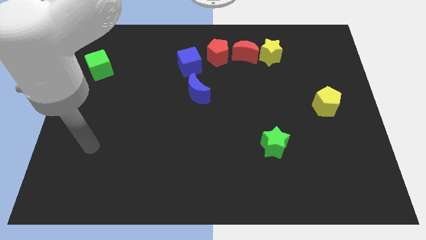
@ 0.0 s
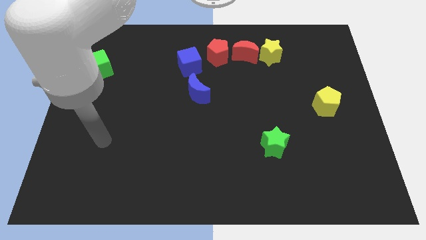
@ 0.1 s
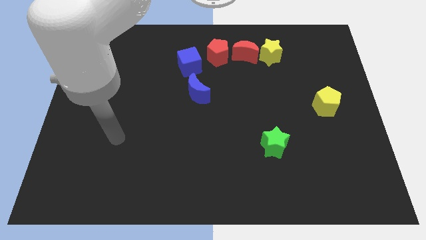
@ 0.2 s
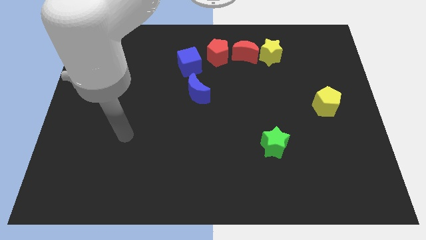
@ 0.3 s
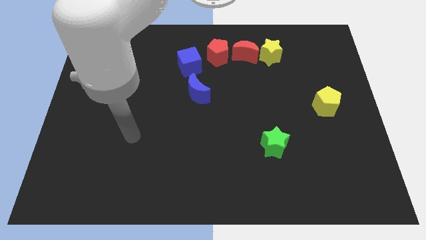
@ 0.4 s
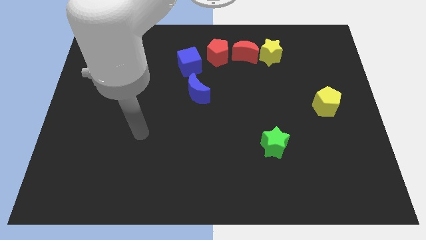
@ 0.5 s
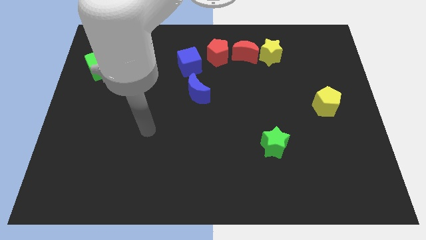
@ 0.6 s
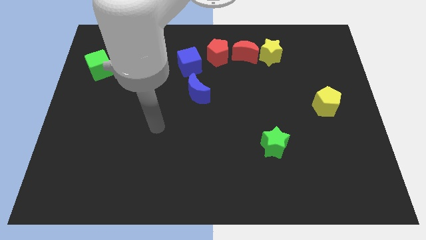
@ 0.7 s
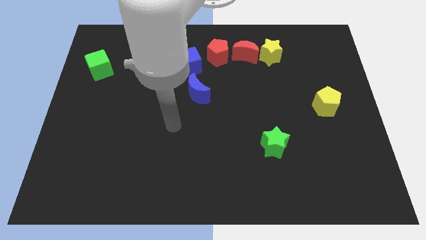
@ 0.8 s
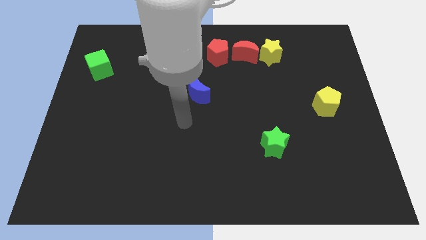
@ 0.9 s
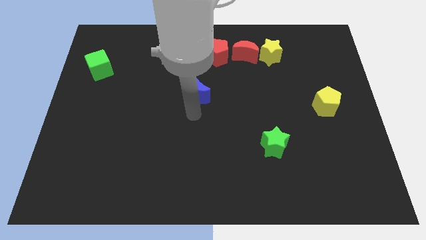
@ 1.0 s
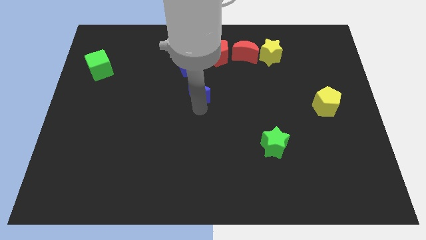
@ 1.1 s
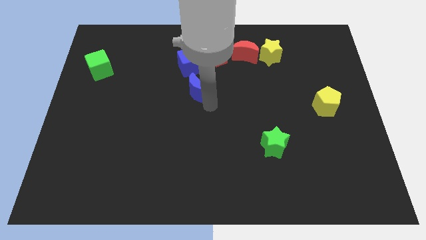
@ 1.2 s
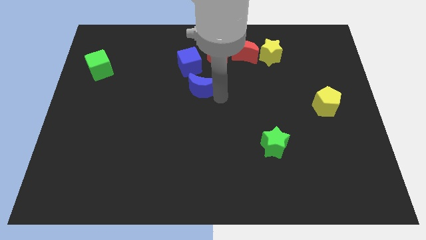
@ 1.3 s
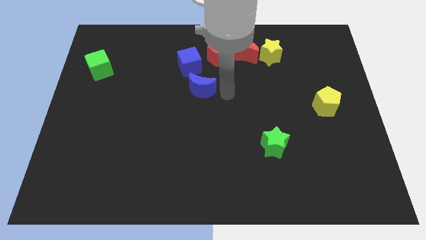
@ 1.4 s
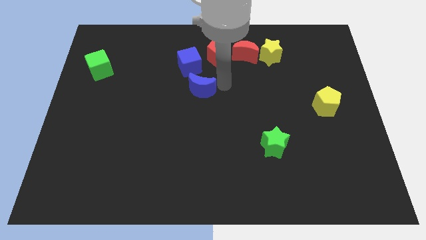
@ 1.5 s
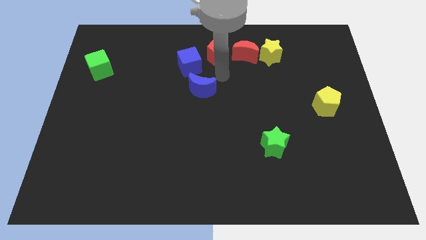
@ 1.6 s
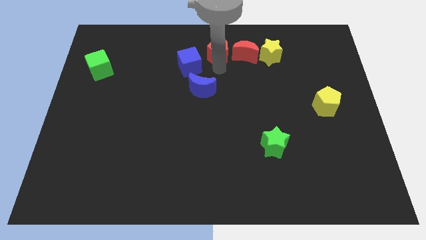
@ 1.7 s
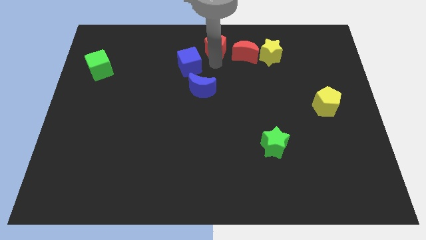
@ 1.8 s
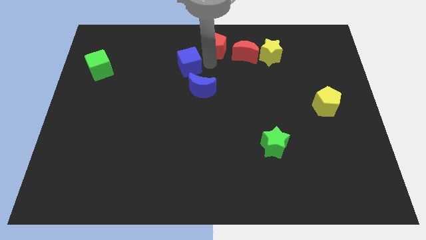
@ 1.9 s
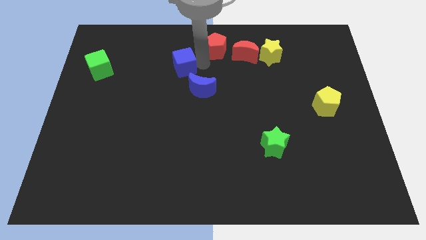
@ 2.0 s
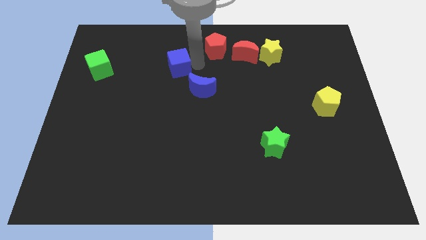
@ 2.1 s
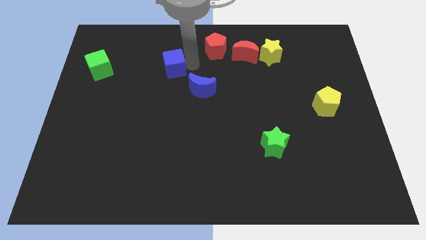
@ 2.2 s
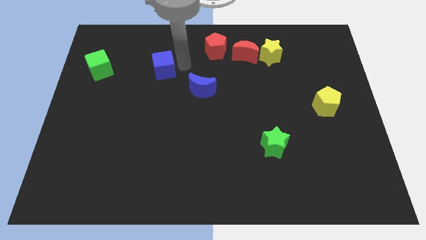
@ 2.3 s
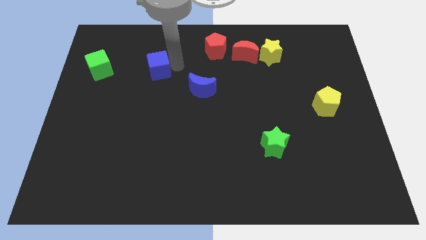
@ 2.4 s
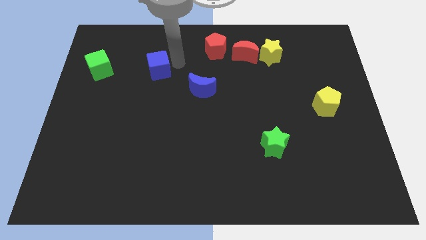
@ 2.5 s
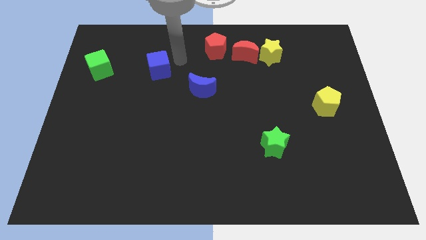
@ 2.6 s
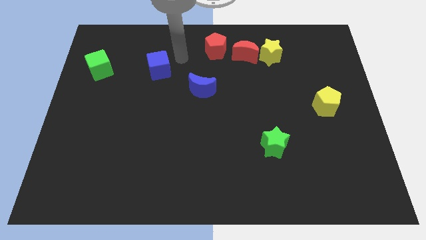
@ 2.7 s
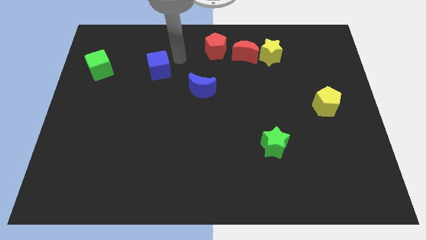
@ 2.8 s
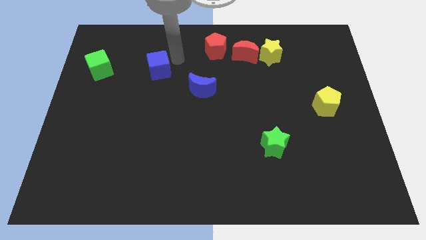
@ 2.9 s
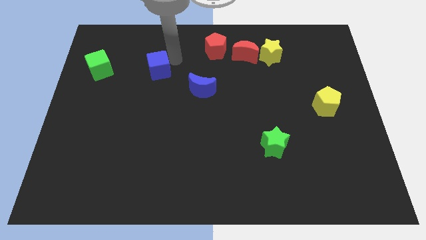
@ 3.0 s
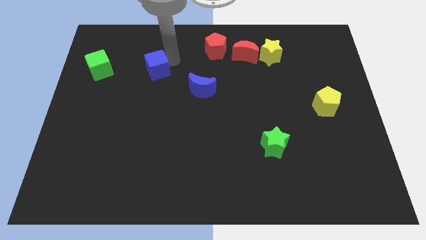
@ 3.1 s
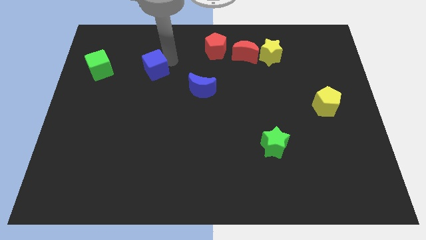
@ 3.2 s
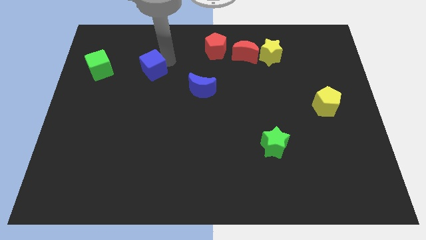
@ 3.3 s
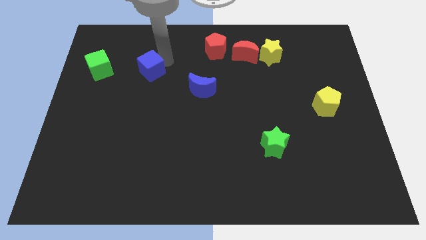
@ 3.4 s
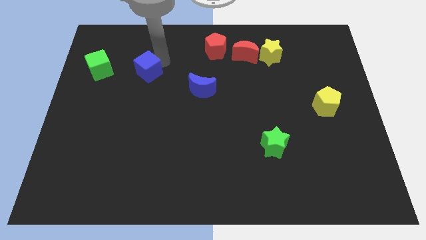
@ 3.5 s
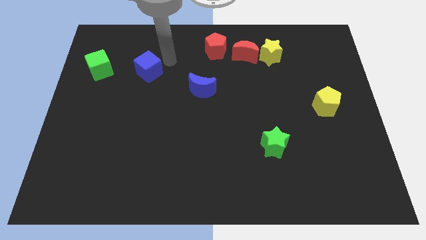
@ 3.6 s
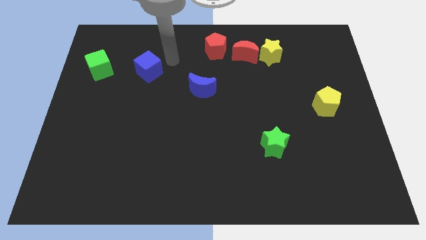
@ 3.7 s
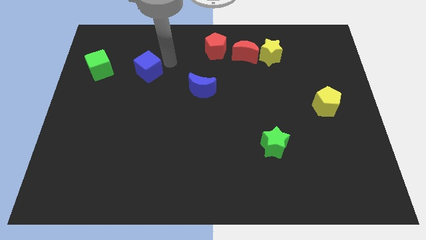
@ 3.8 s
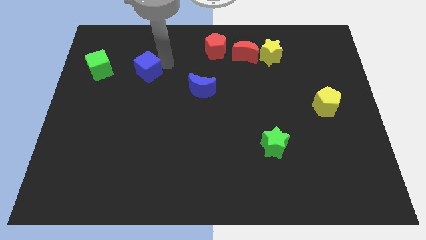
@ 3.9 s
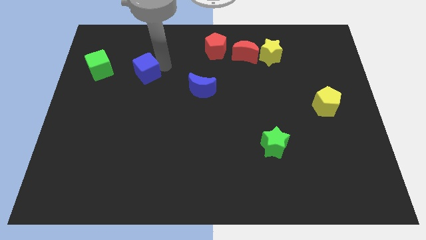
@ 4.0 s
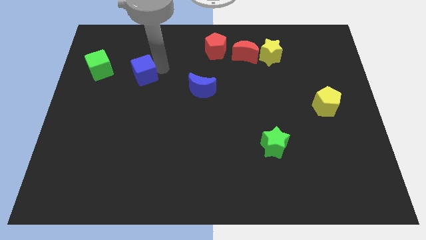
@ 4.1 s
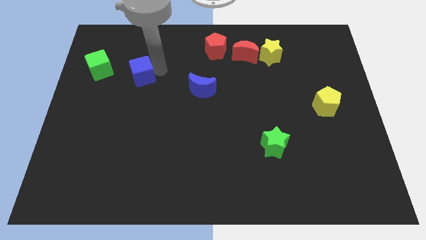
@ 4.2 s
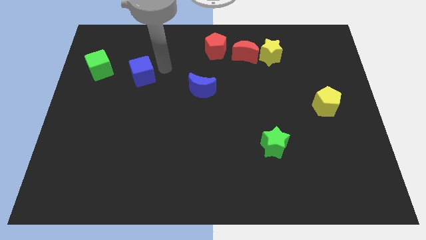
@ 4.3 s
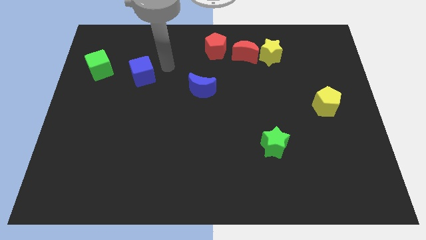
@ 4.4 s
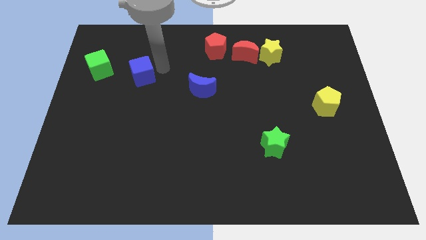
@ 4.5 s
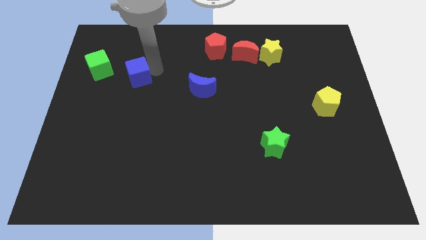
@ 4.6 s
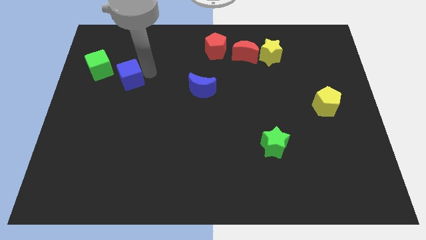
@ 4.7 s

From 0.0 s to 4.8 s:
slide the blue cube to the bottom right side of the green cube

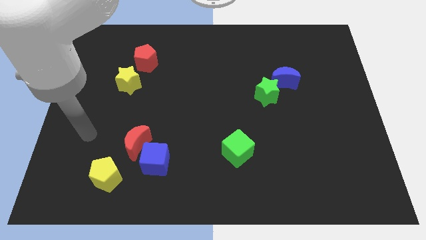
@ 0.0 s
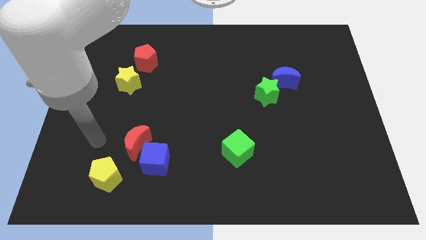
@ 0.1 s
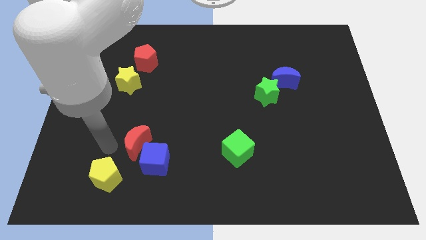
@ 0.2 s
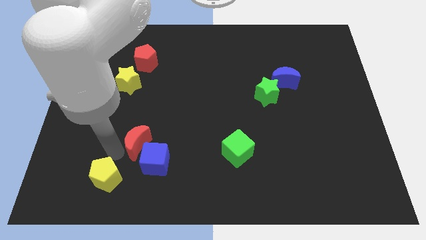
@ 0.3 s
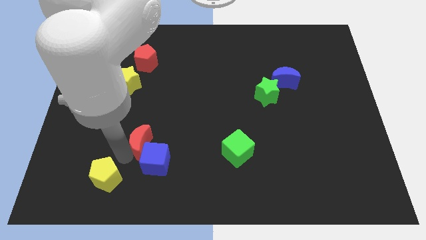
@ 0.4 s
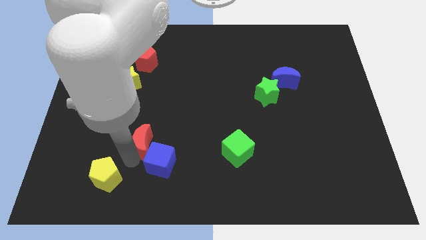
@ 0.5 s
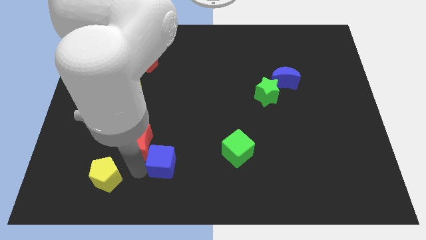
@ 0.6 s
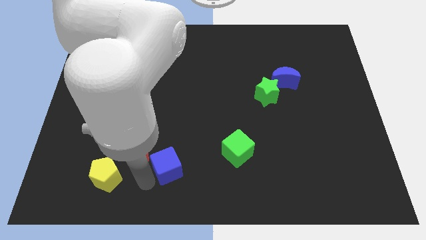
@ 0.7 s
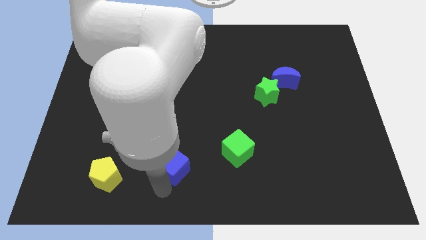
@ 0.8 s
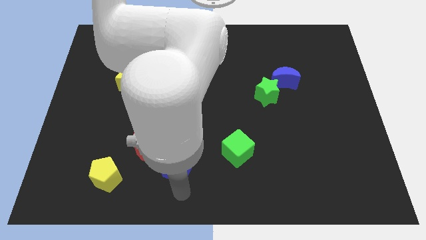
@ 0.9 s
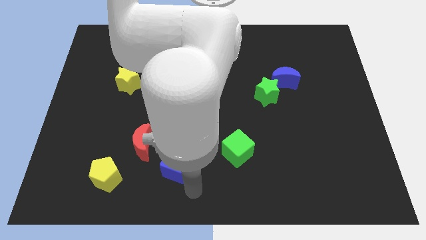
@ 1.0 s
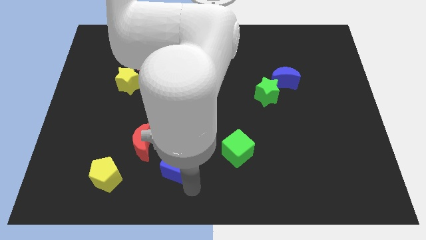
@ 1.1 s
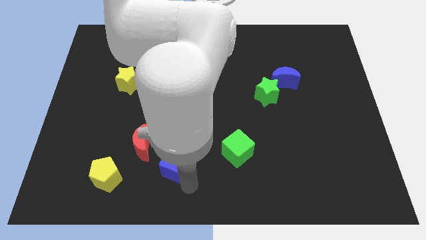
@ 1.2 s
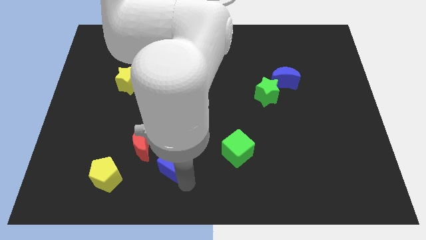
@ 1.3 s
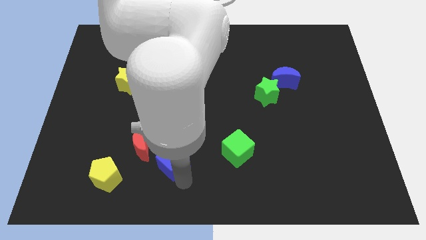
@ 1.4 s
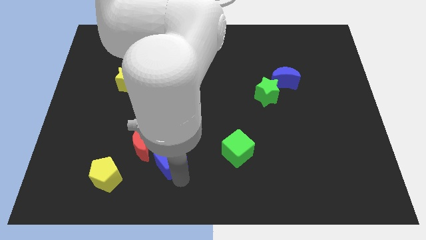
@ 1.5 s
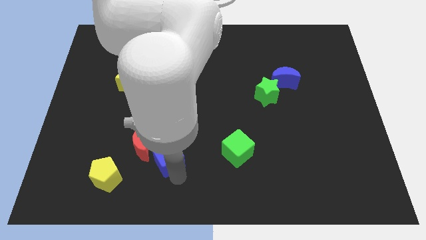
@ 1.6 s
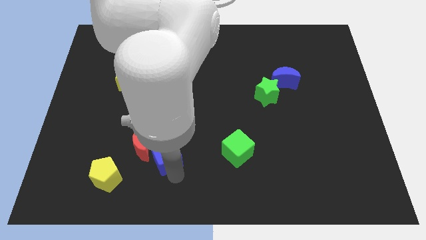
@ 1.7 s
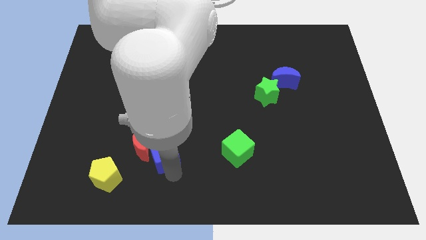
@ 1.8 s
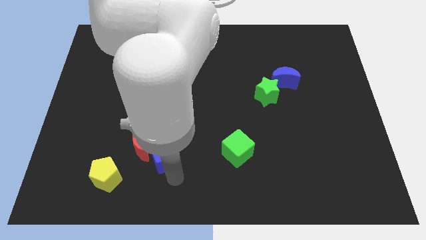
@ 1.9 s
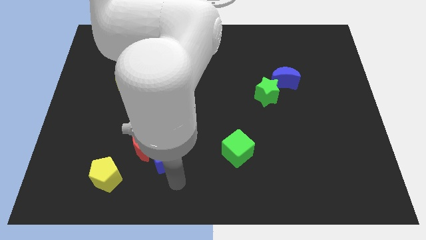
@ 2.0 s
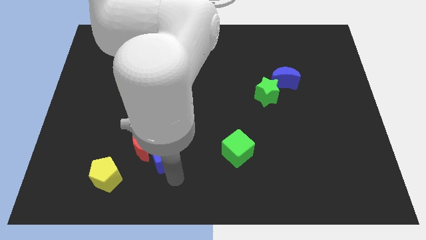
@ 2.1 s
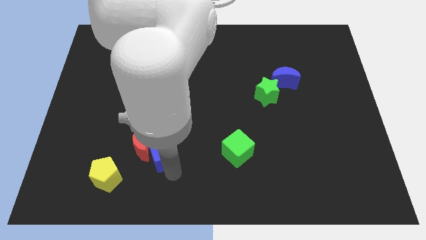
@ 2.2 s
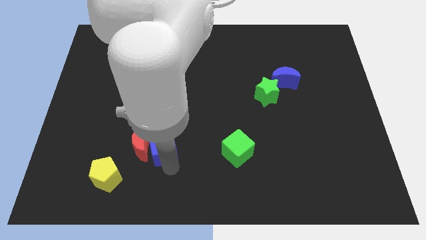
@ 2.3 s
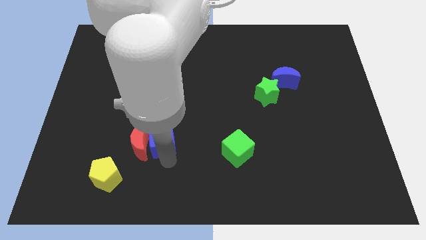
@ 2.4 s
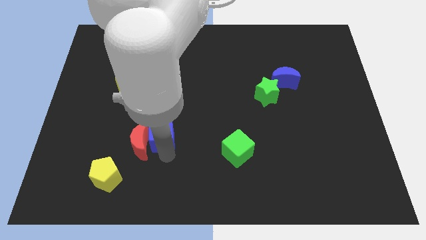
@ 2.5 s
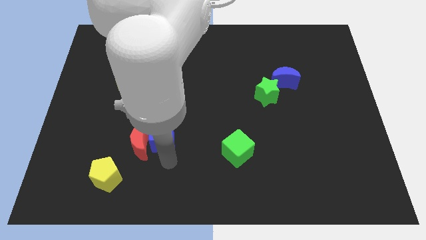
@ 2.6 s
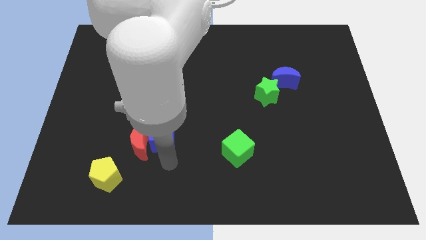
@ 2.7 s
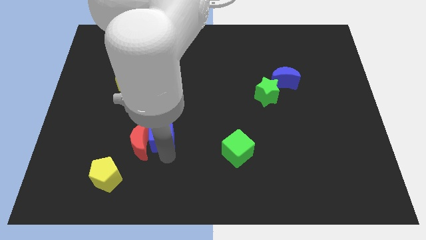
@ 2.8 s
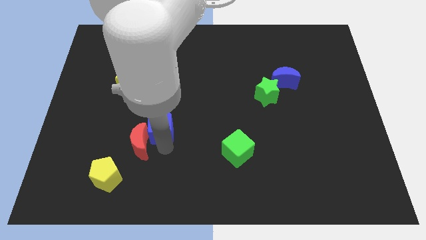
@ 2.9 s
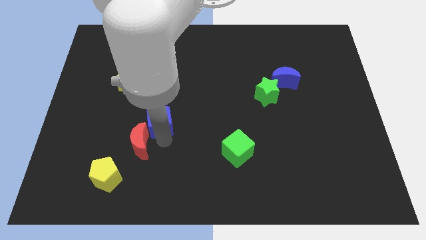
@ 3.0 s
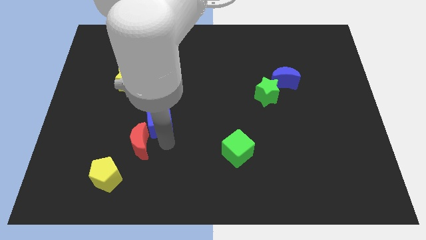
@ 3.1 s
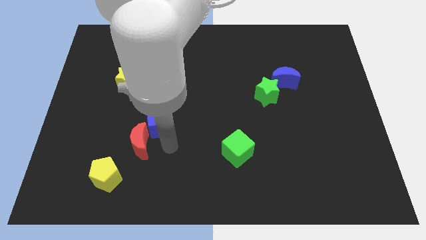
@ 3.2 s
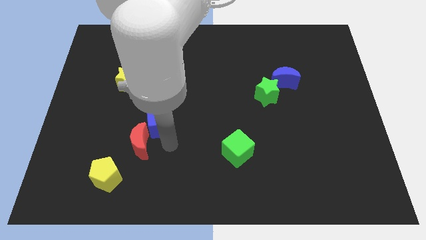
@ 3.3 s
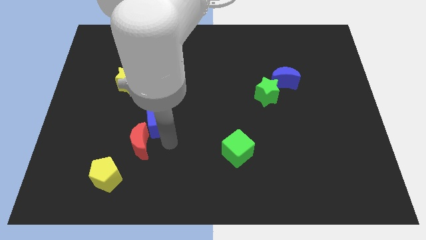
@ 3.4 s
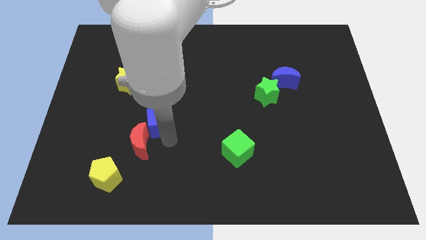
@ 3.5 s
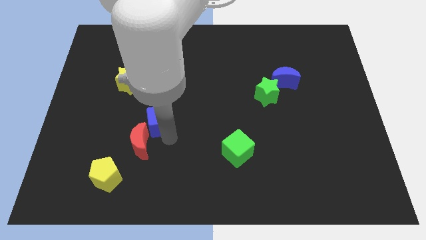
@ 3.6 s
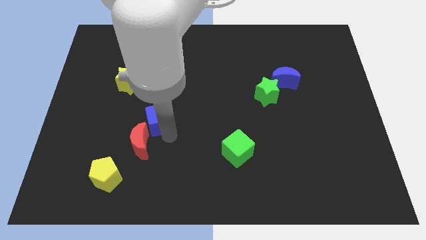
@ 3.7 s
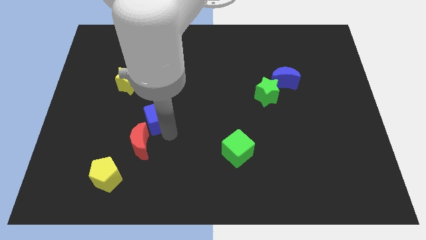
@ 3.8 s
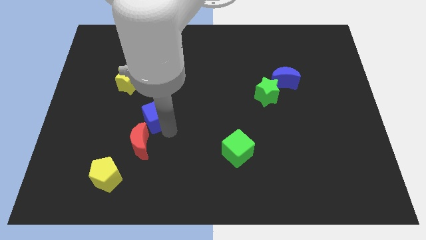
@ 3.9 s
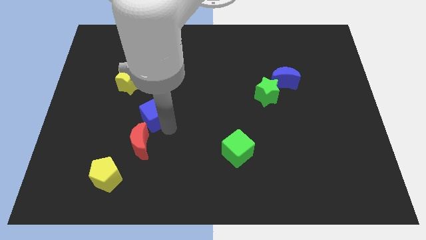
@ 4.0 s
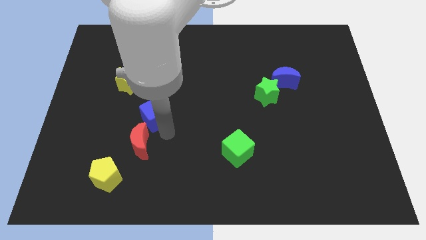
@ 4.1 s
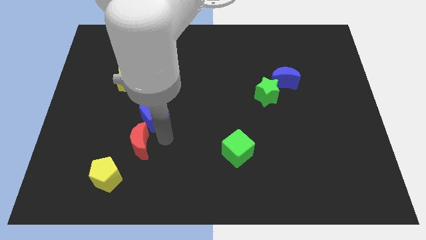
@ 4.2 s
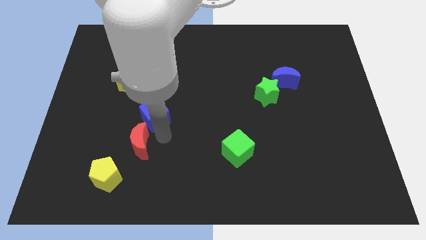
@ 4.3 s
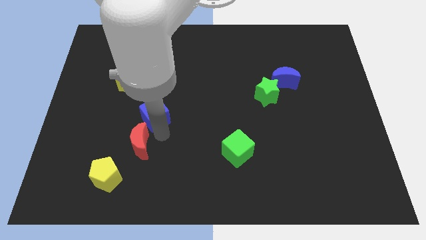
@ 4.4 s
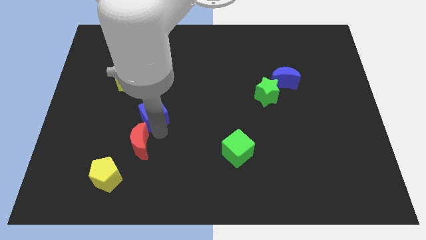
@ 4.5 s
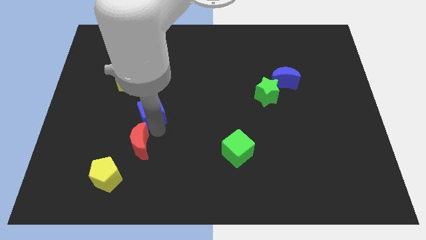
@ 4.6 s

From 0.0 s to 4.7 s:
move the blue cube to the bottom right of the yellow star
